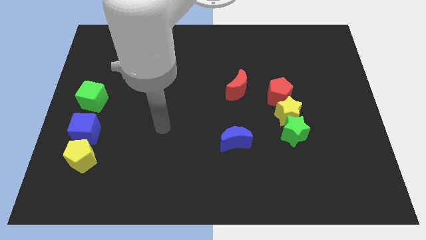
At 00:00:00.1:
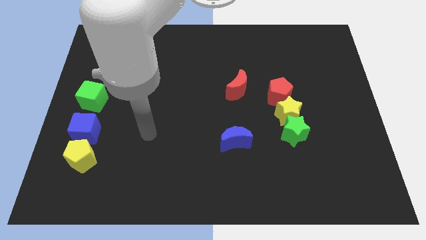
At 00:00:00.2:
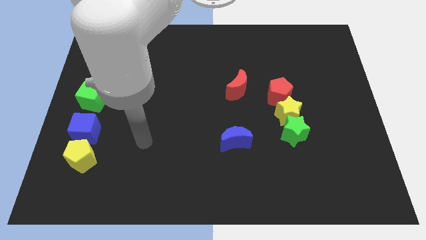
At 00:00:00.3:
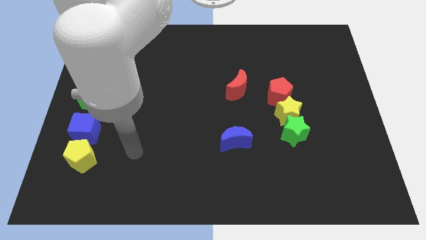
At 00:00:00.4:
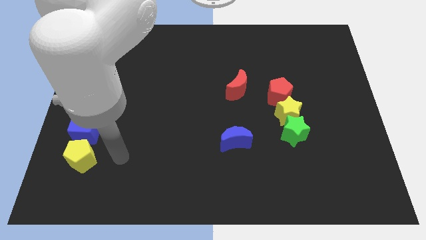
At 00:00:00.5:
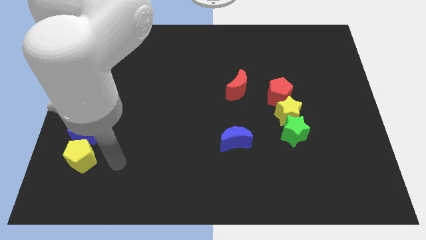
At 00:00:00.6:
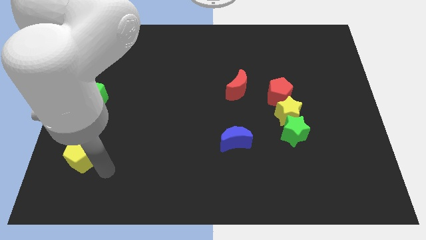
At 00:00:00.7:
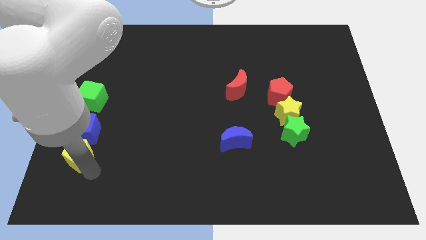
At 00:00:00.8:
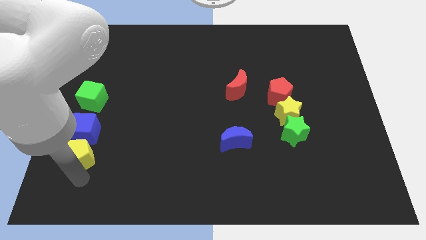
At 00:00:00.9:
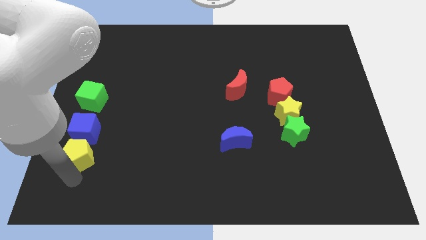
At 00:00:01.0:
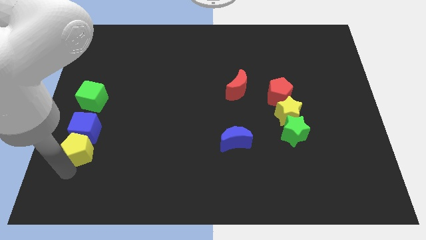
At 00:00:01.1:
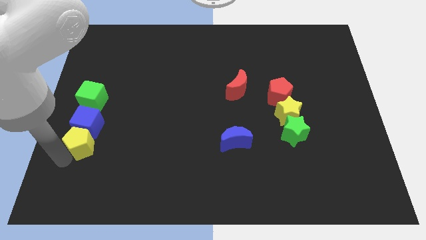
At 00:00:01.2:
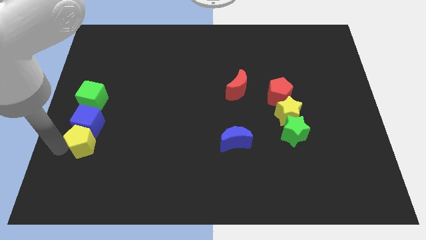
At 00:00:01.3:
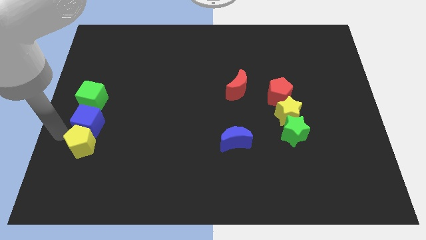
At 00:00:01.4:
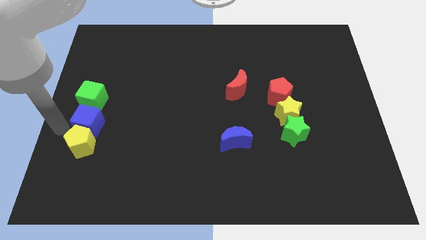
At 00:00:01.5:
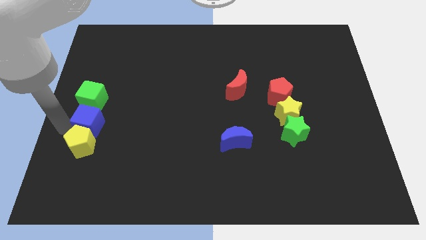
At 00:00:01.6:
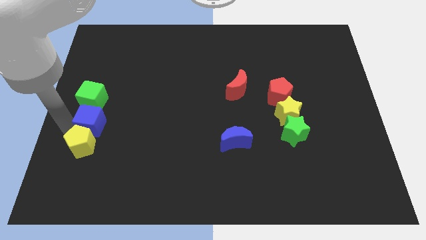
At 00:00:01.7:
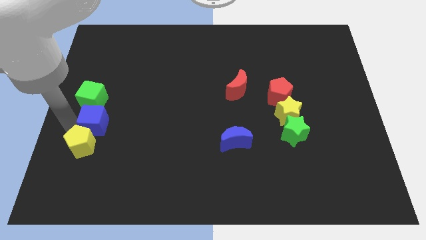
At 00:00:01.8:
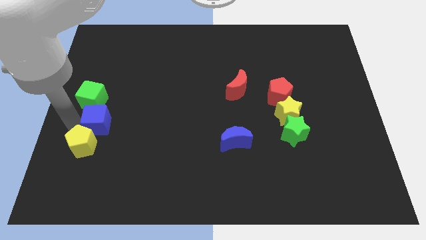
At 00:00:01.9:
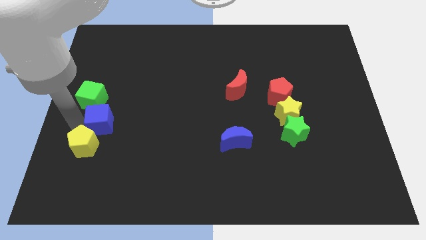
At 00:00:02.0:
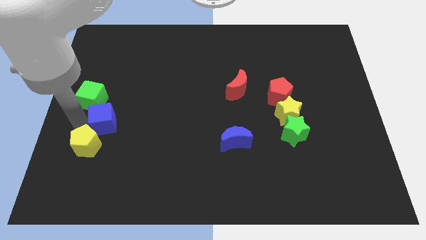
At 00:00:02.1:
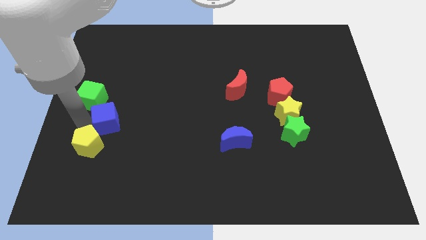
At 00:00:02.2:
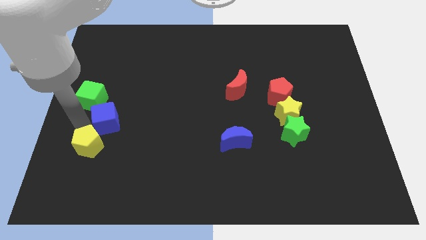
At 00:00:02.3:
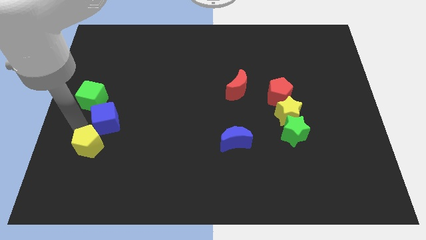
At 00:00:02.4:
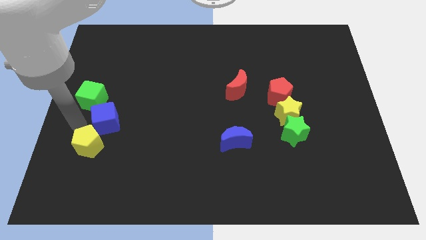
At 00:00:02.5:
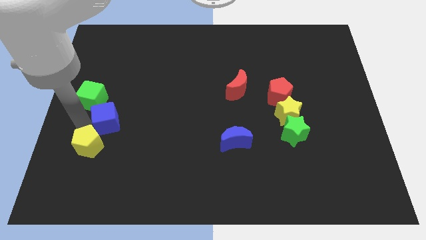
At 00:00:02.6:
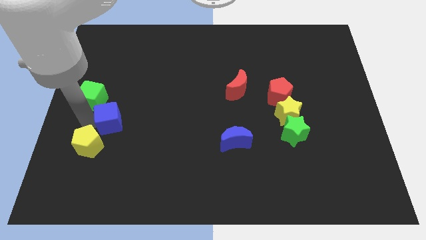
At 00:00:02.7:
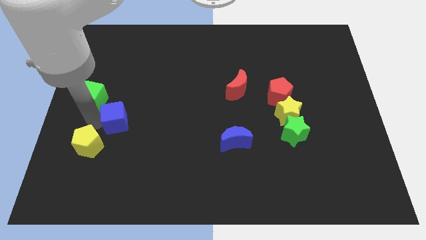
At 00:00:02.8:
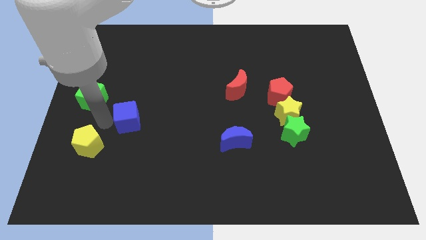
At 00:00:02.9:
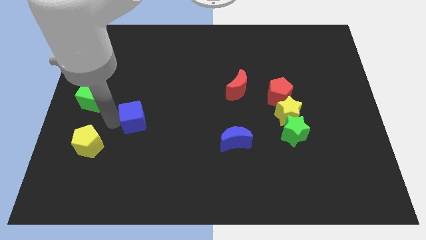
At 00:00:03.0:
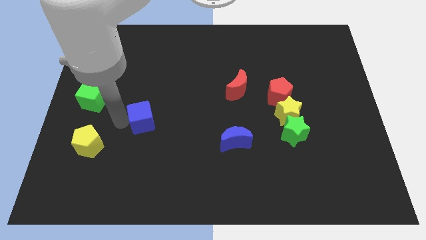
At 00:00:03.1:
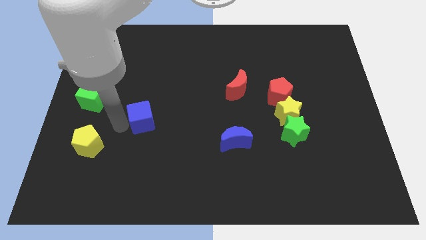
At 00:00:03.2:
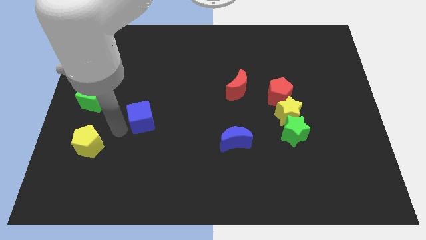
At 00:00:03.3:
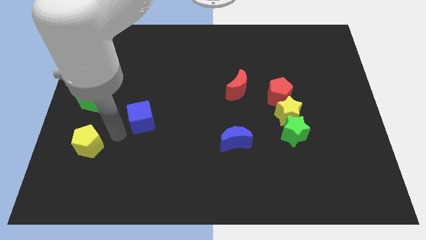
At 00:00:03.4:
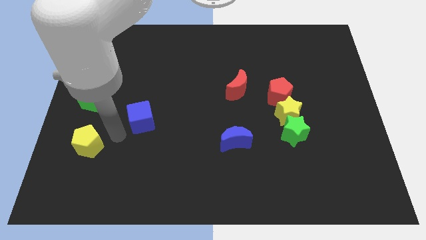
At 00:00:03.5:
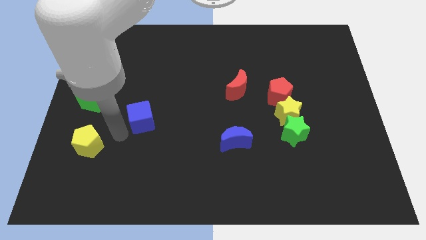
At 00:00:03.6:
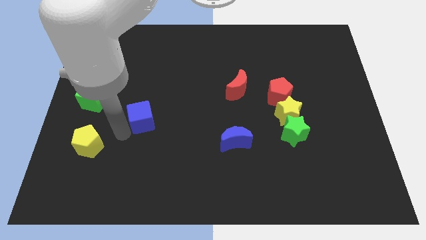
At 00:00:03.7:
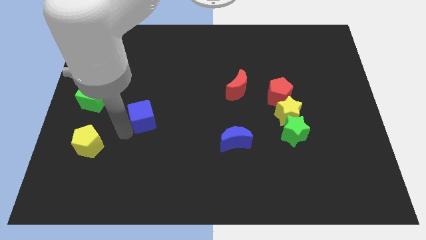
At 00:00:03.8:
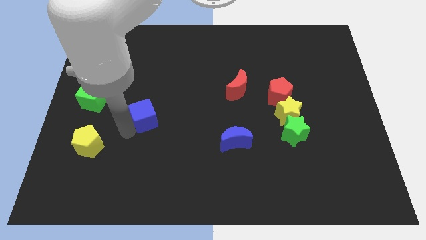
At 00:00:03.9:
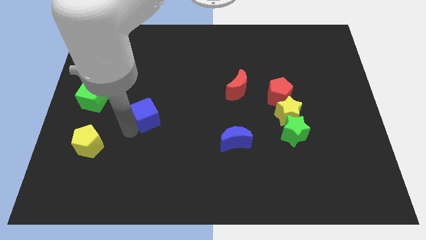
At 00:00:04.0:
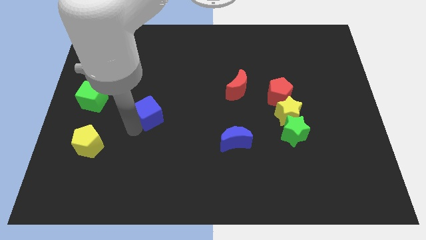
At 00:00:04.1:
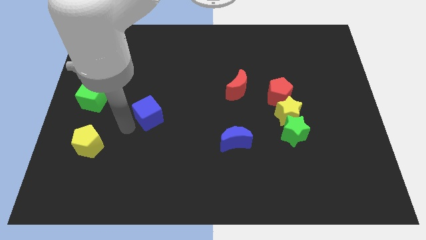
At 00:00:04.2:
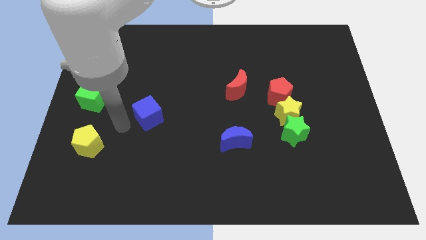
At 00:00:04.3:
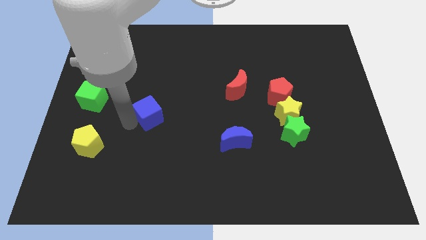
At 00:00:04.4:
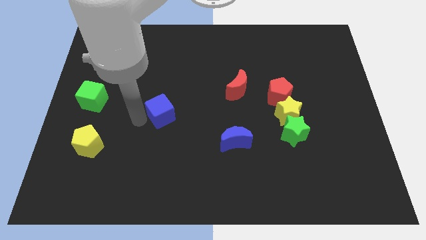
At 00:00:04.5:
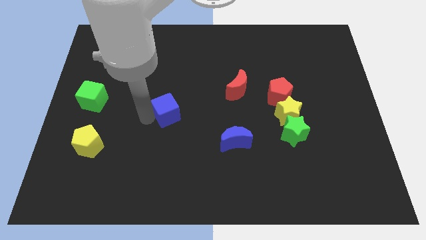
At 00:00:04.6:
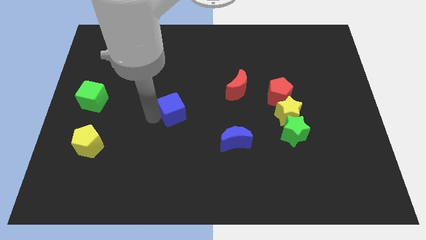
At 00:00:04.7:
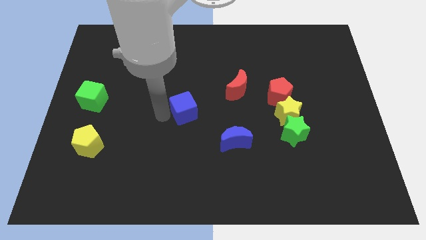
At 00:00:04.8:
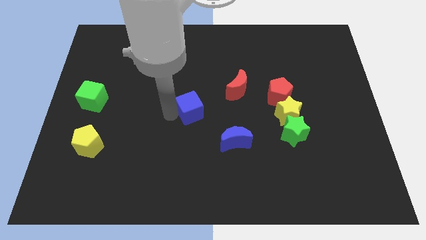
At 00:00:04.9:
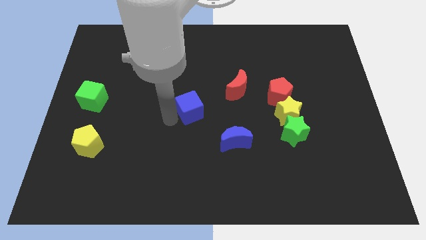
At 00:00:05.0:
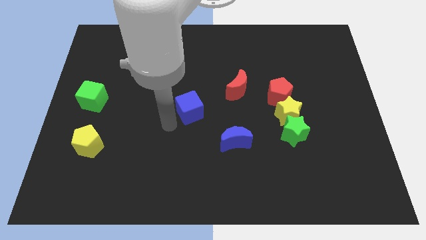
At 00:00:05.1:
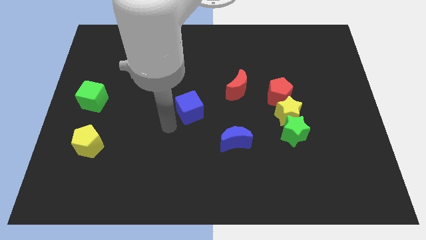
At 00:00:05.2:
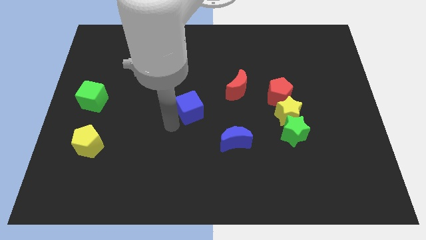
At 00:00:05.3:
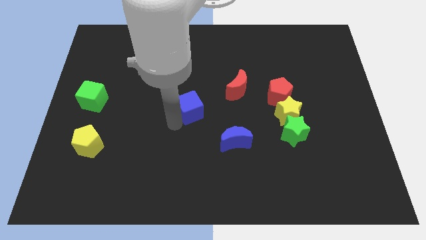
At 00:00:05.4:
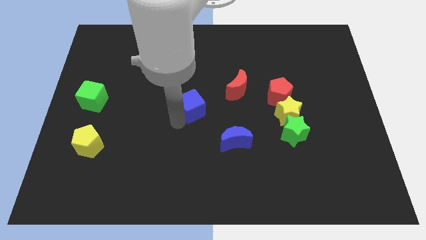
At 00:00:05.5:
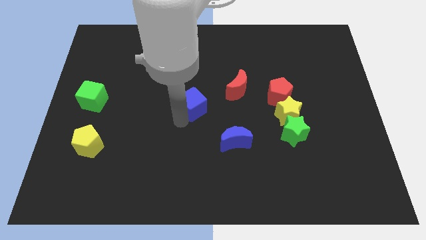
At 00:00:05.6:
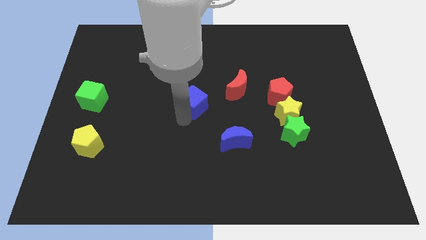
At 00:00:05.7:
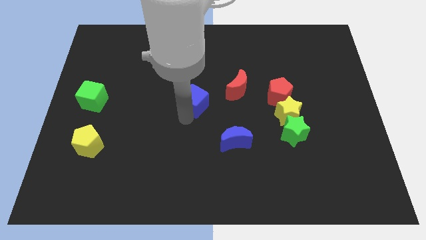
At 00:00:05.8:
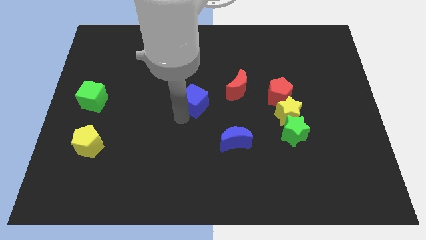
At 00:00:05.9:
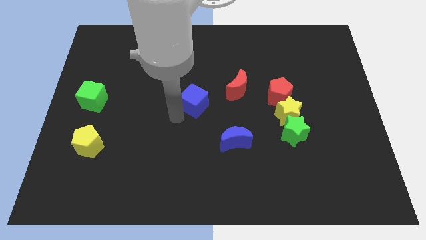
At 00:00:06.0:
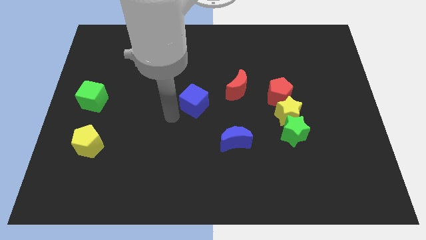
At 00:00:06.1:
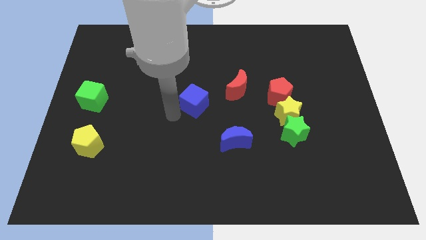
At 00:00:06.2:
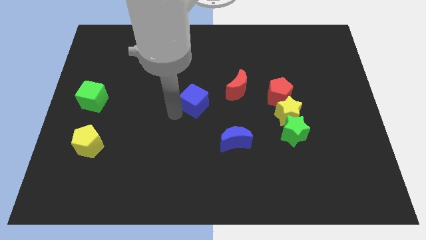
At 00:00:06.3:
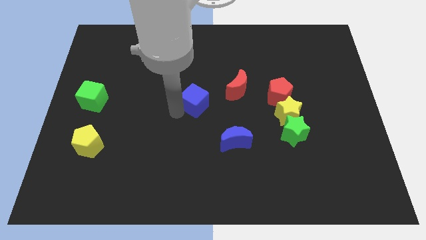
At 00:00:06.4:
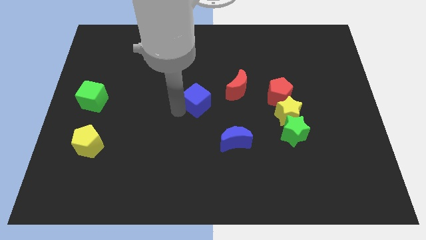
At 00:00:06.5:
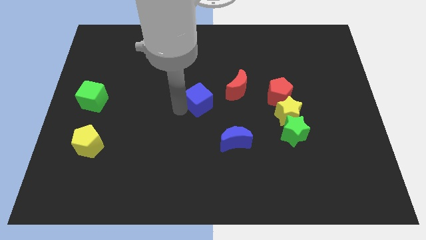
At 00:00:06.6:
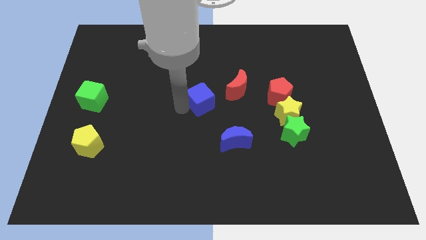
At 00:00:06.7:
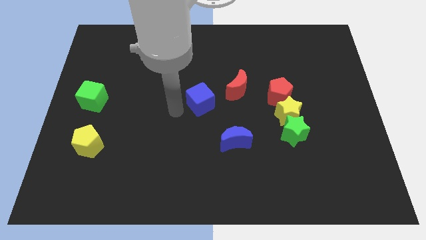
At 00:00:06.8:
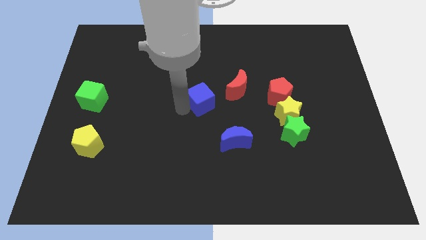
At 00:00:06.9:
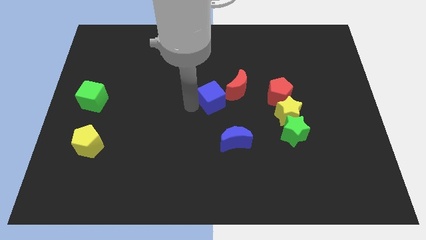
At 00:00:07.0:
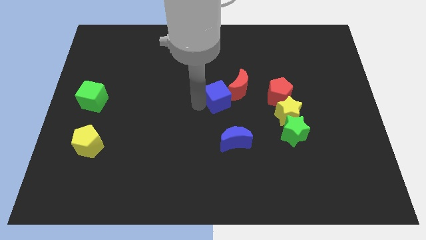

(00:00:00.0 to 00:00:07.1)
push the blue cube next to the red moon
